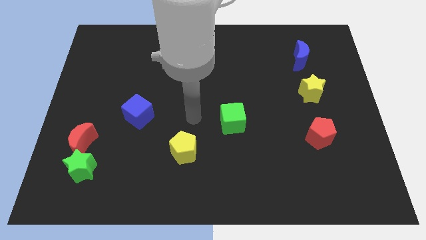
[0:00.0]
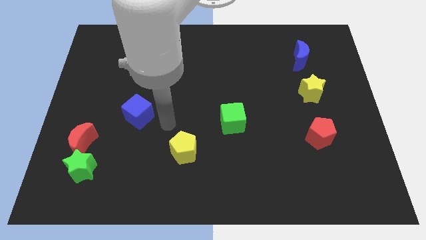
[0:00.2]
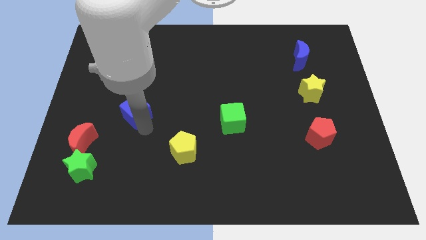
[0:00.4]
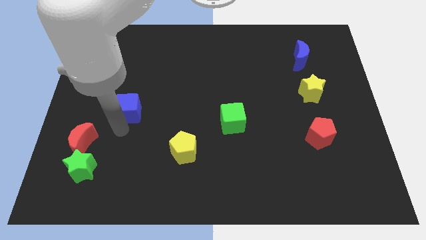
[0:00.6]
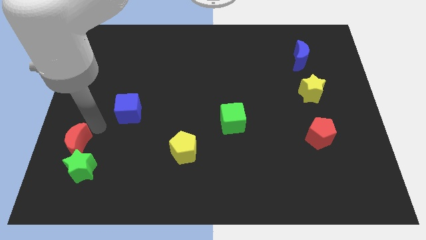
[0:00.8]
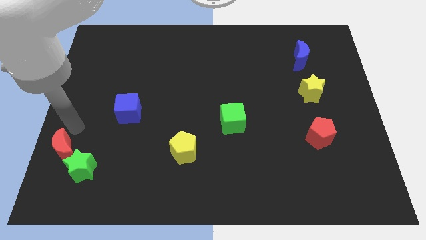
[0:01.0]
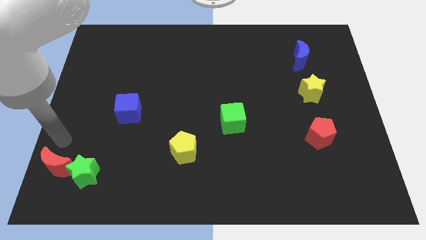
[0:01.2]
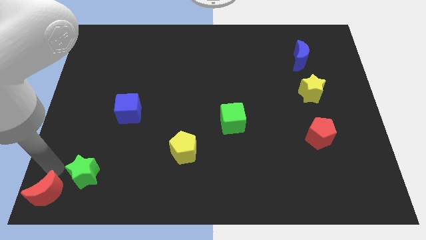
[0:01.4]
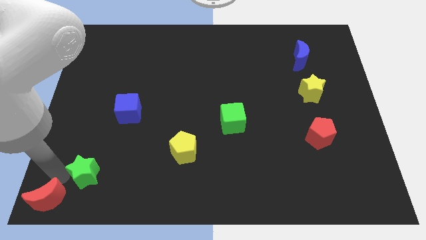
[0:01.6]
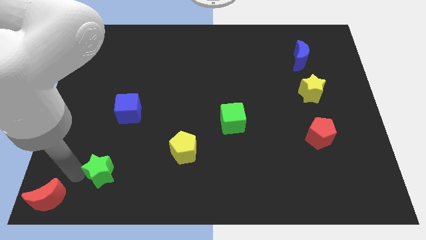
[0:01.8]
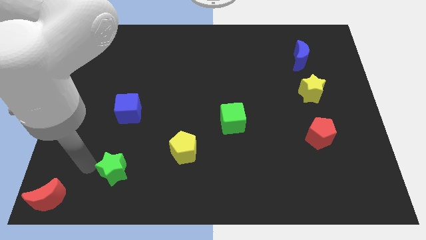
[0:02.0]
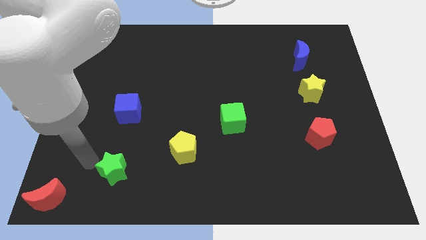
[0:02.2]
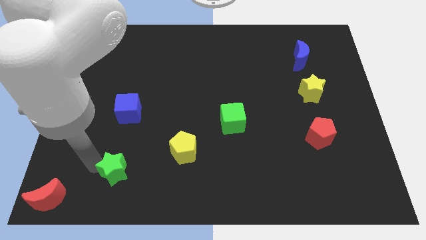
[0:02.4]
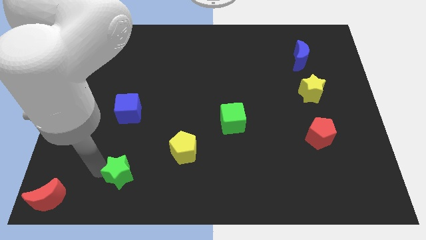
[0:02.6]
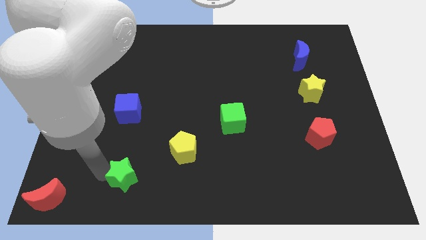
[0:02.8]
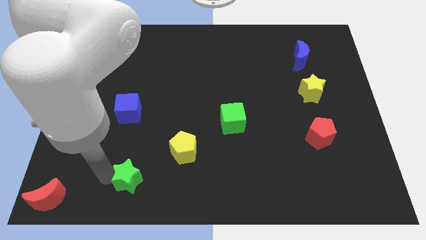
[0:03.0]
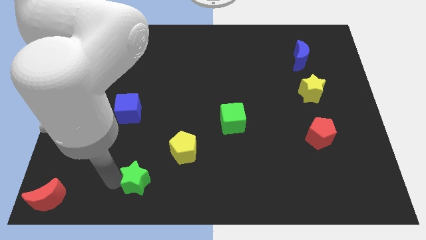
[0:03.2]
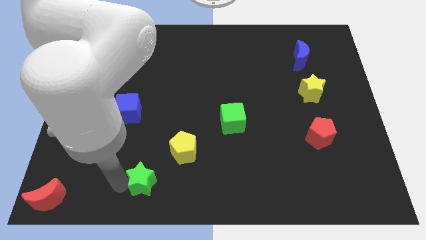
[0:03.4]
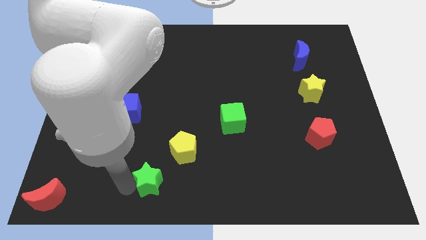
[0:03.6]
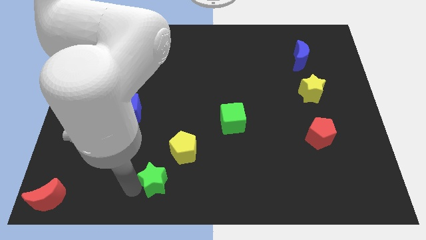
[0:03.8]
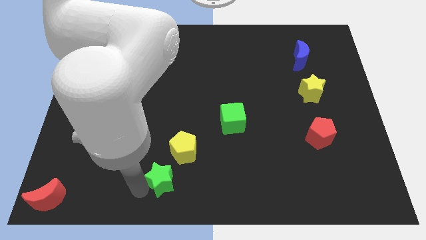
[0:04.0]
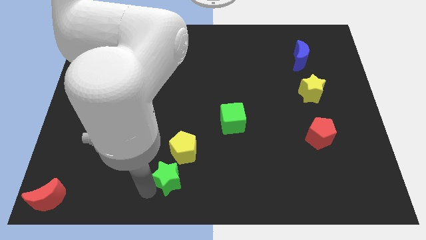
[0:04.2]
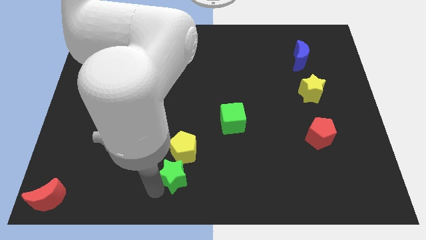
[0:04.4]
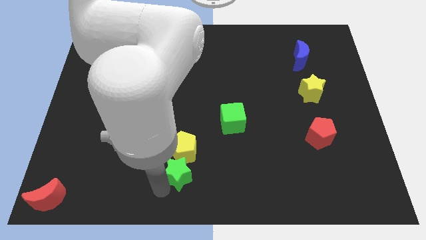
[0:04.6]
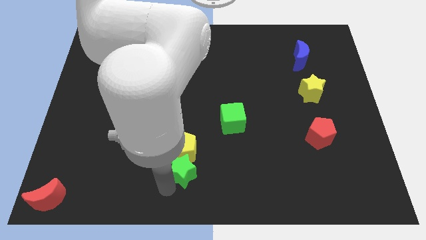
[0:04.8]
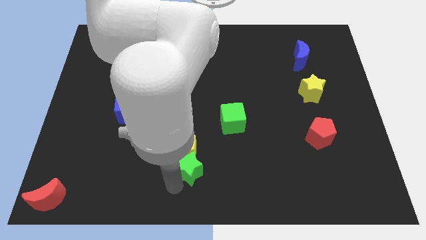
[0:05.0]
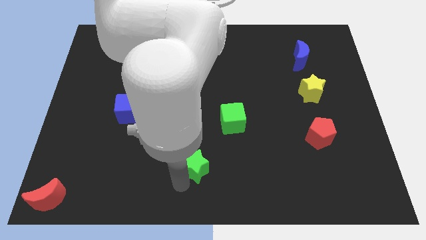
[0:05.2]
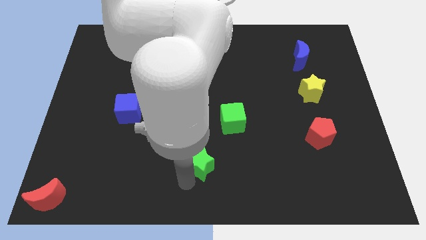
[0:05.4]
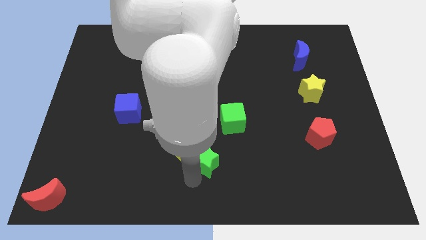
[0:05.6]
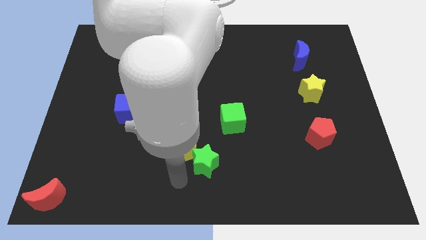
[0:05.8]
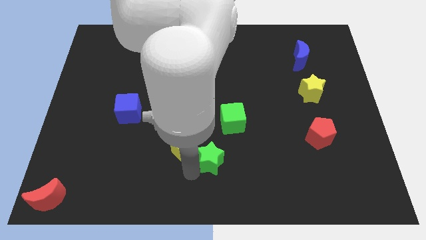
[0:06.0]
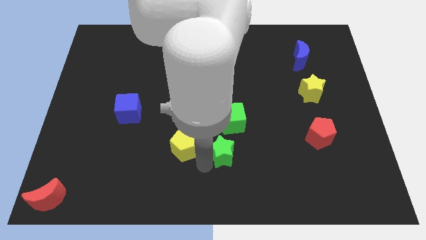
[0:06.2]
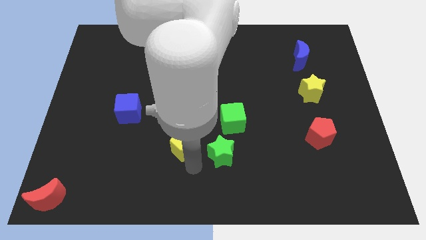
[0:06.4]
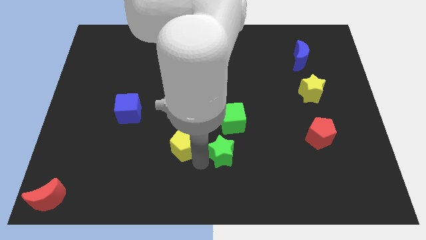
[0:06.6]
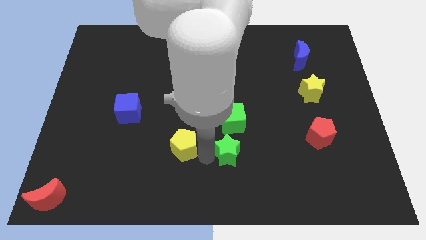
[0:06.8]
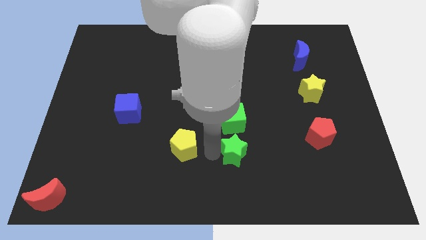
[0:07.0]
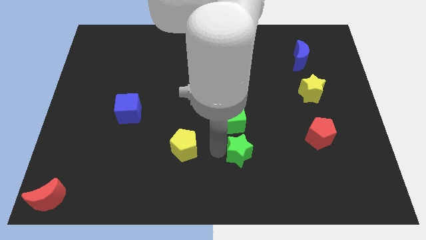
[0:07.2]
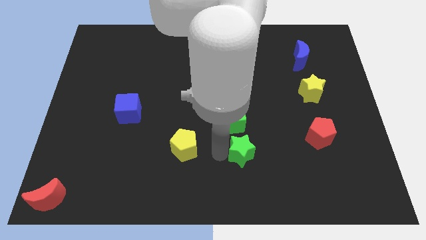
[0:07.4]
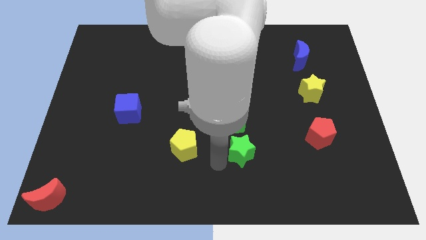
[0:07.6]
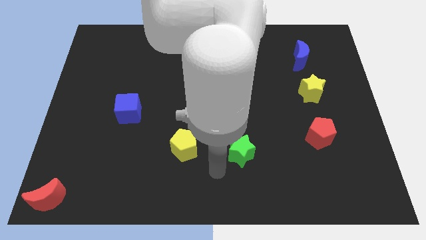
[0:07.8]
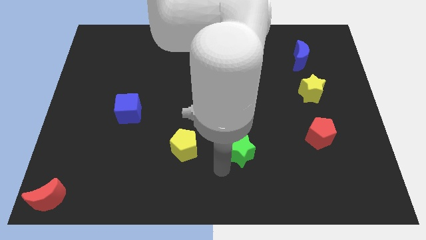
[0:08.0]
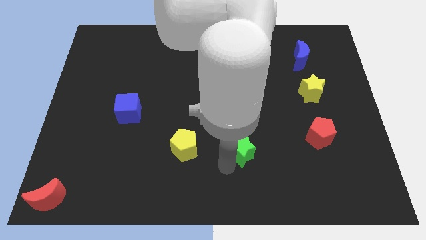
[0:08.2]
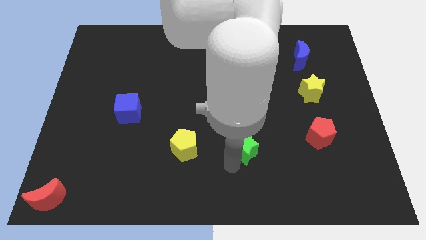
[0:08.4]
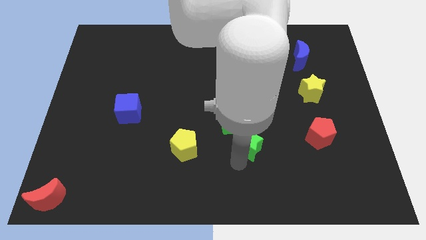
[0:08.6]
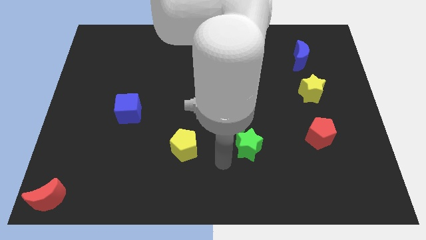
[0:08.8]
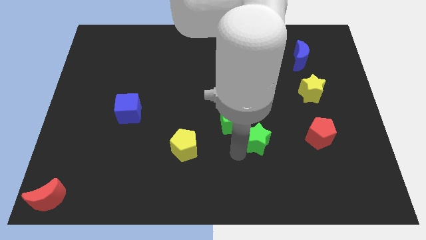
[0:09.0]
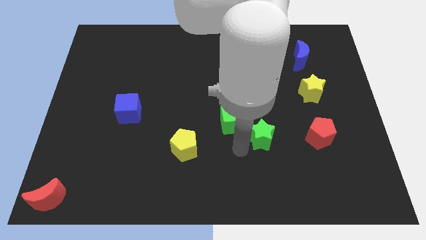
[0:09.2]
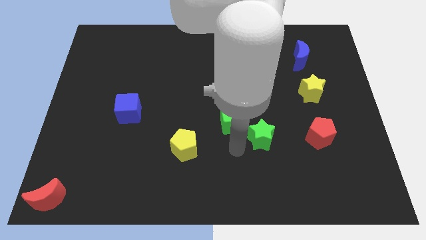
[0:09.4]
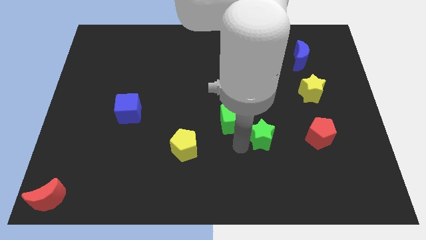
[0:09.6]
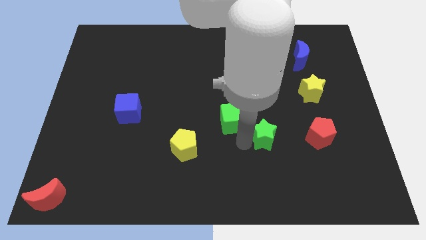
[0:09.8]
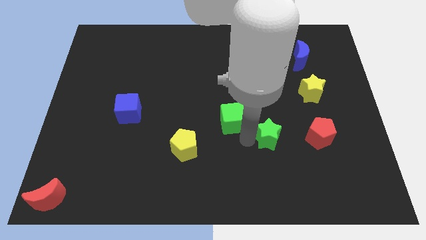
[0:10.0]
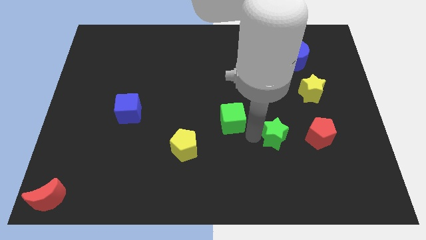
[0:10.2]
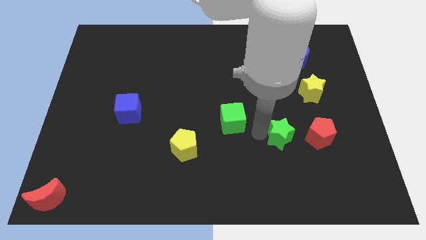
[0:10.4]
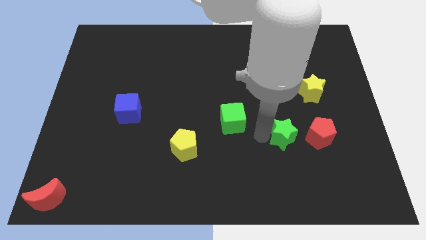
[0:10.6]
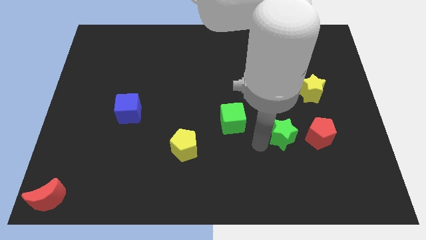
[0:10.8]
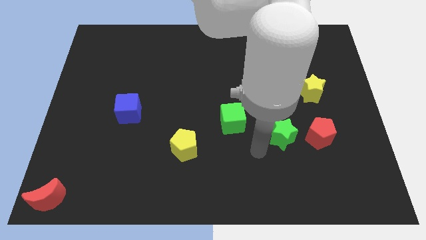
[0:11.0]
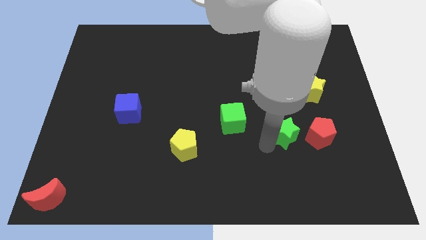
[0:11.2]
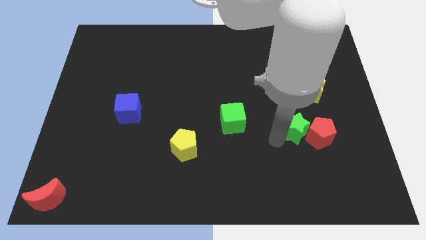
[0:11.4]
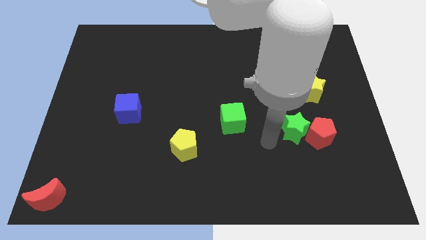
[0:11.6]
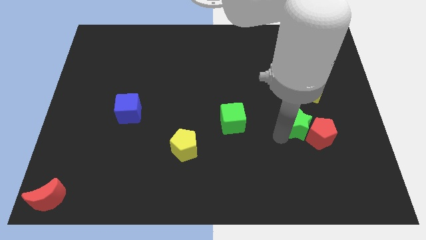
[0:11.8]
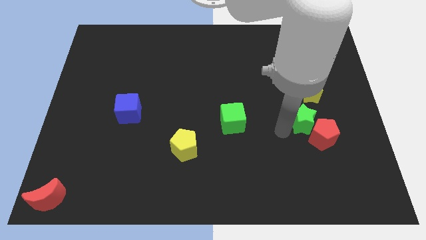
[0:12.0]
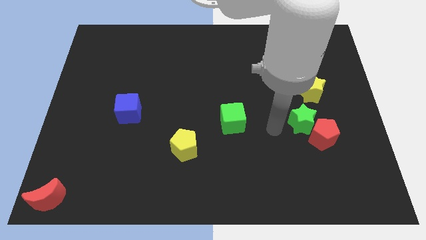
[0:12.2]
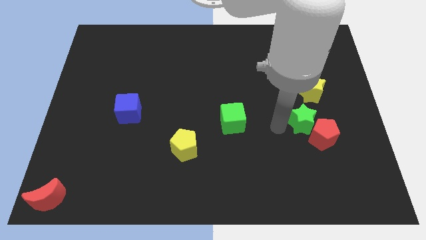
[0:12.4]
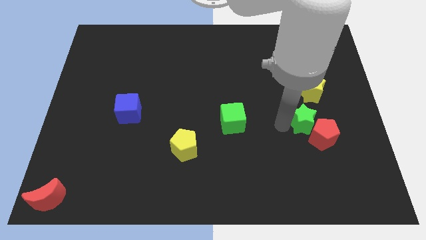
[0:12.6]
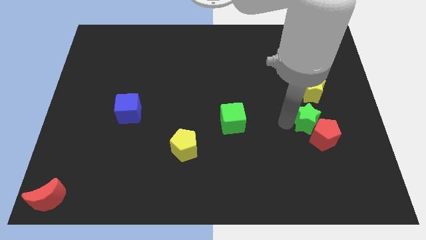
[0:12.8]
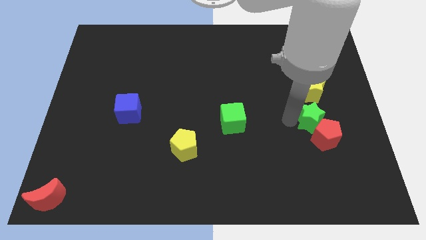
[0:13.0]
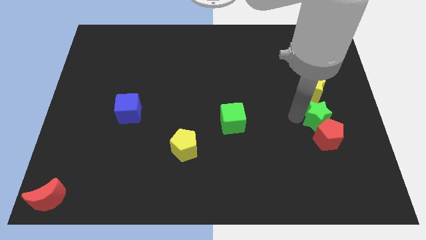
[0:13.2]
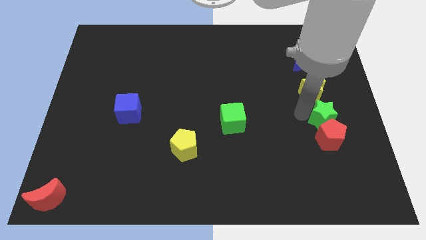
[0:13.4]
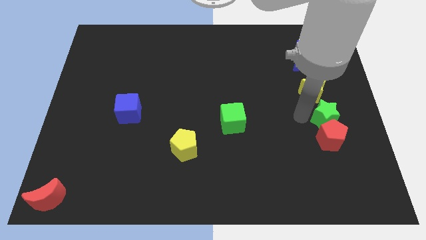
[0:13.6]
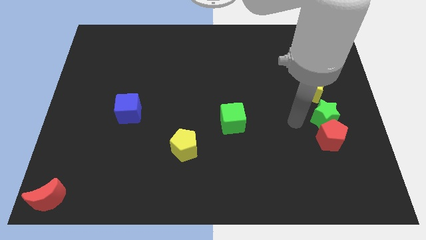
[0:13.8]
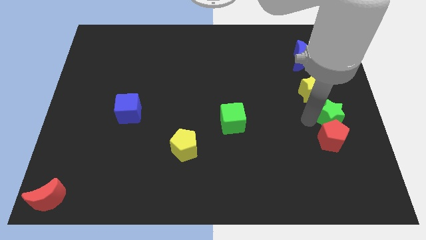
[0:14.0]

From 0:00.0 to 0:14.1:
put the green star to the right side of the board
